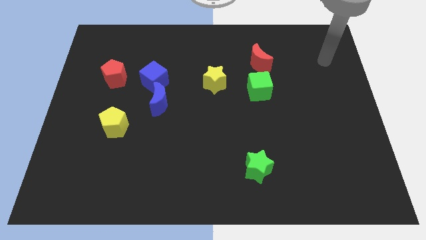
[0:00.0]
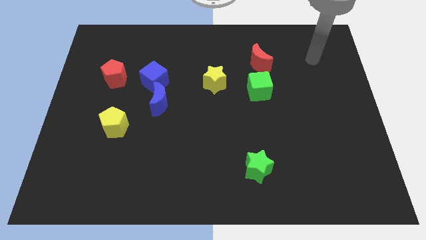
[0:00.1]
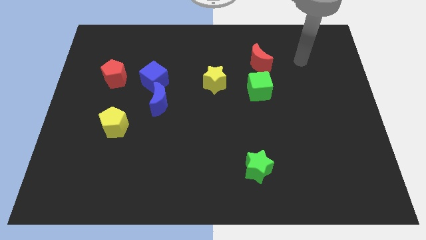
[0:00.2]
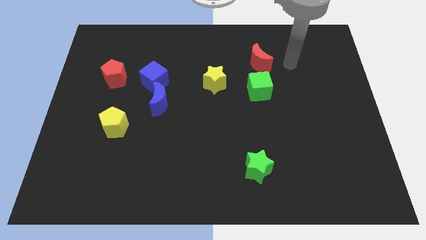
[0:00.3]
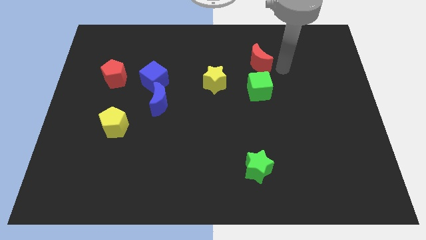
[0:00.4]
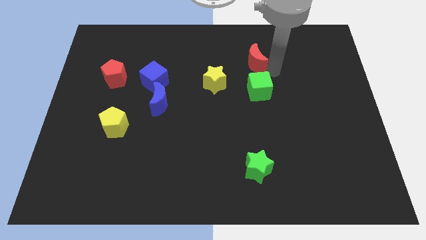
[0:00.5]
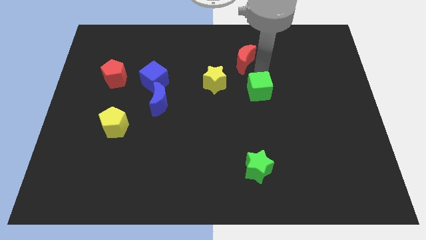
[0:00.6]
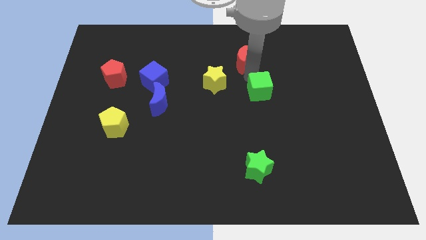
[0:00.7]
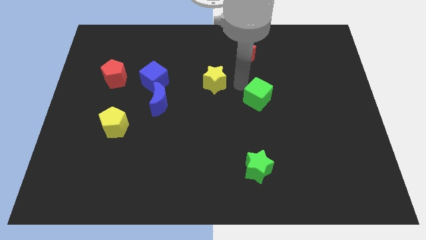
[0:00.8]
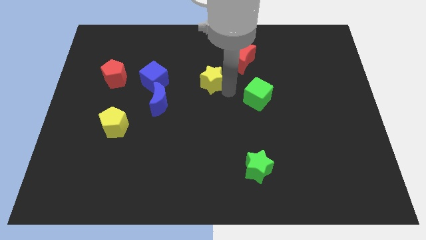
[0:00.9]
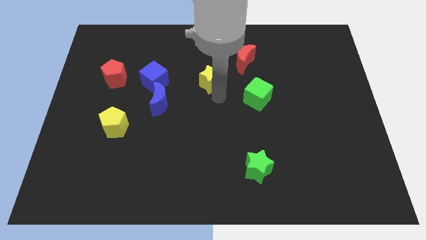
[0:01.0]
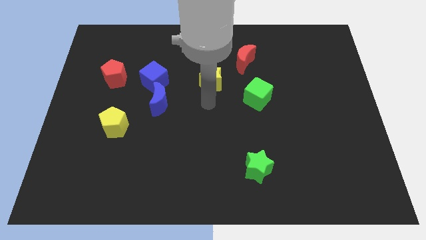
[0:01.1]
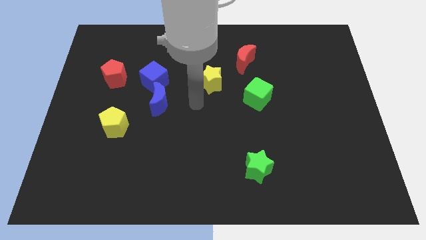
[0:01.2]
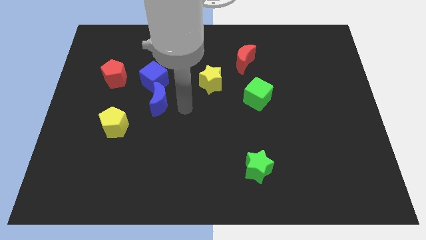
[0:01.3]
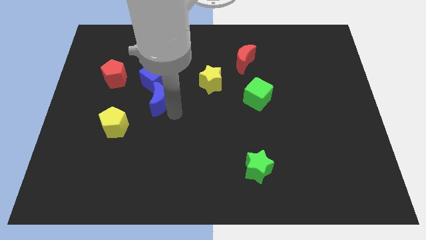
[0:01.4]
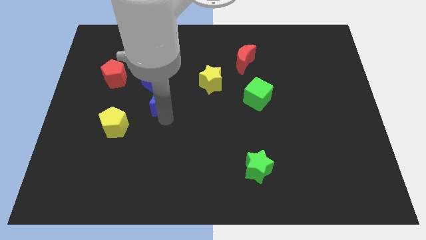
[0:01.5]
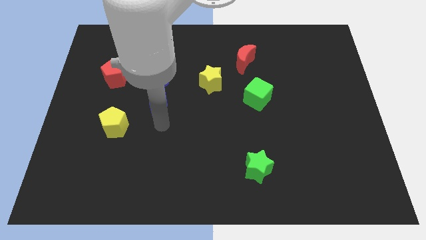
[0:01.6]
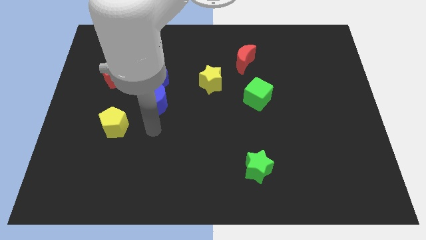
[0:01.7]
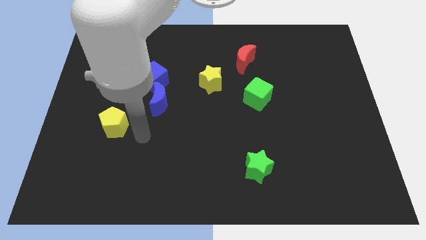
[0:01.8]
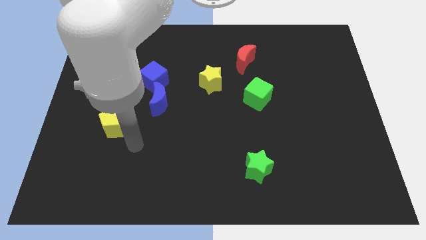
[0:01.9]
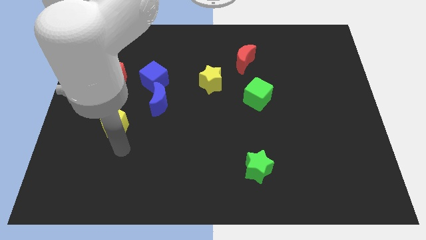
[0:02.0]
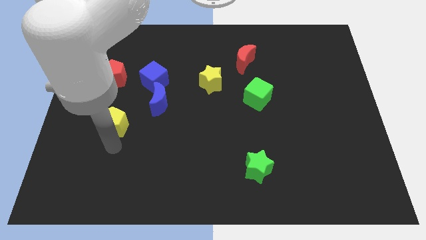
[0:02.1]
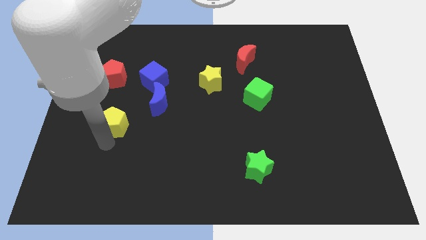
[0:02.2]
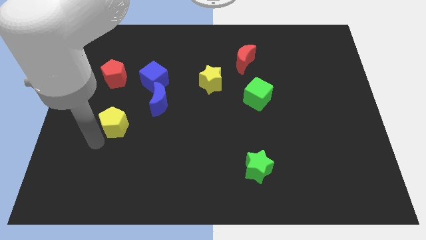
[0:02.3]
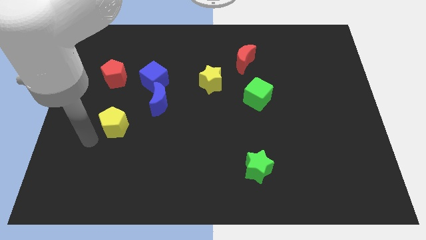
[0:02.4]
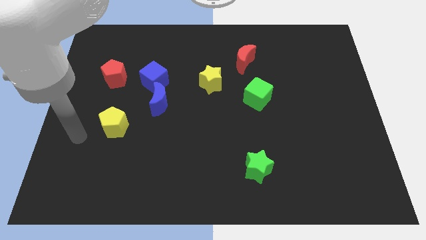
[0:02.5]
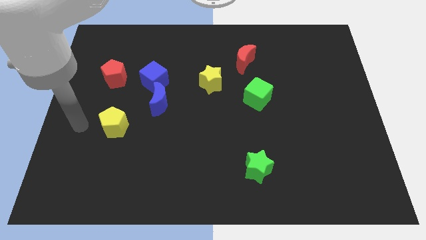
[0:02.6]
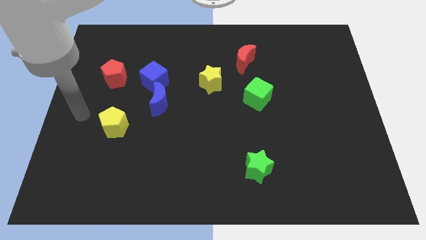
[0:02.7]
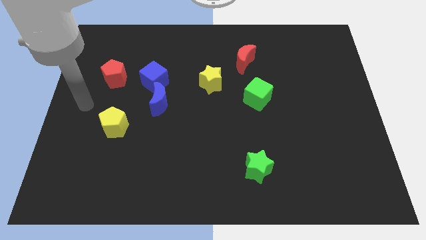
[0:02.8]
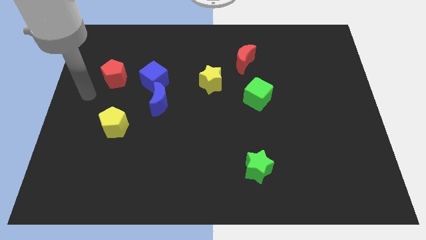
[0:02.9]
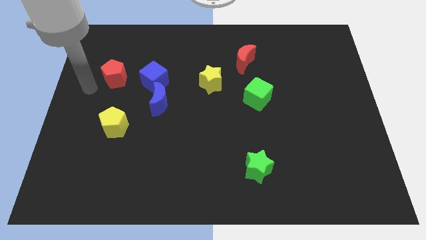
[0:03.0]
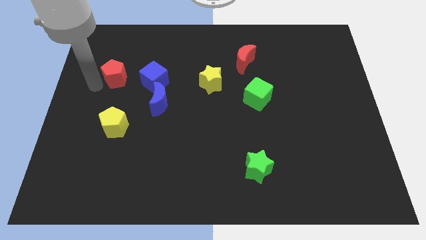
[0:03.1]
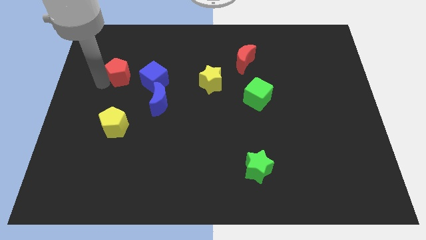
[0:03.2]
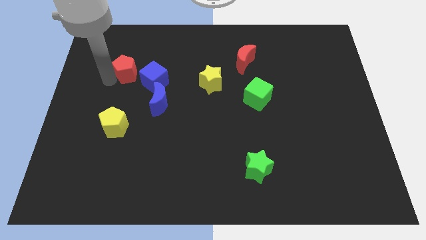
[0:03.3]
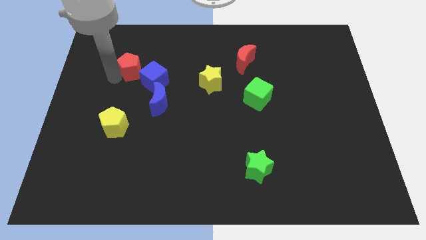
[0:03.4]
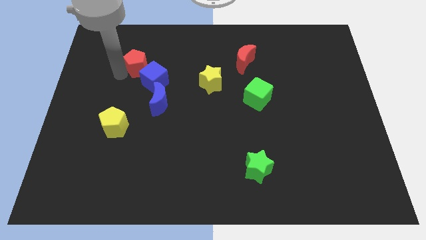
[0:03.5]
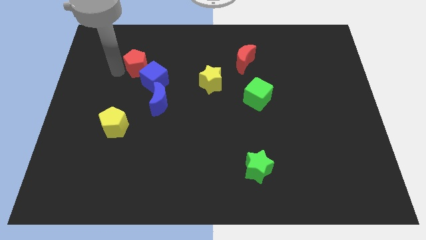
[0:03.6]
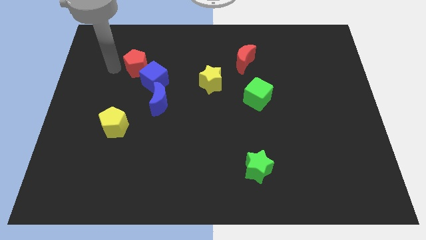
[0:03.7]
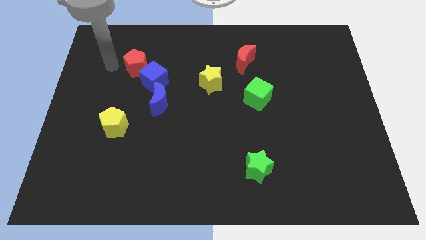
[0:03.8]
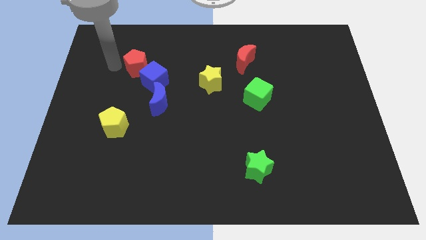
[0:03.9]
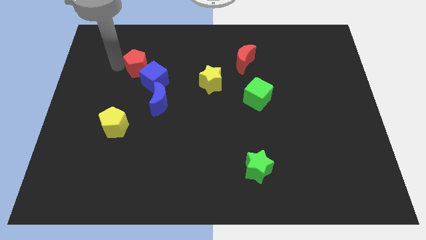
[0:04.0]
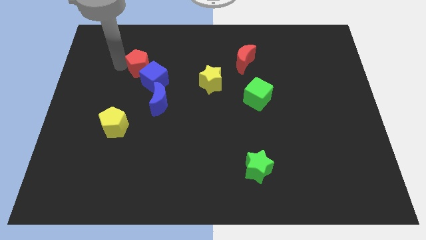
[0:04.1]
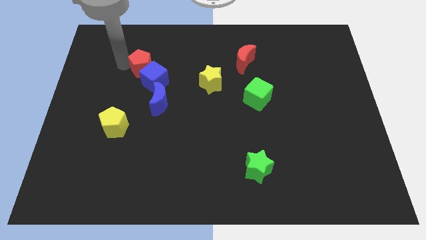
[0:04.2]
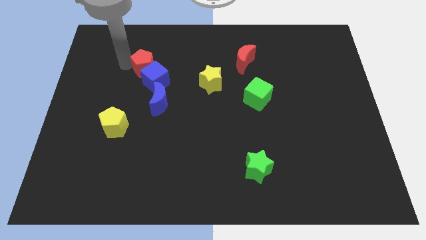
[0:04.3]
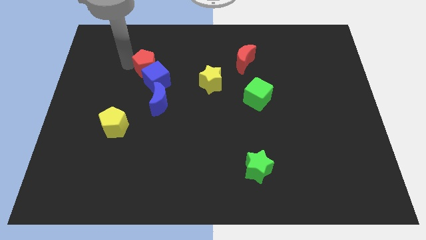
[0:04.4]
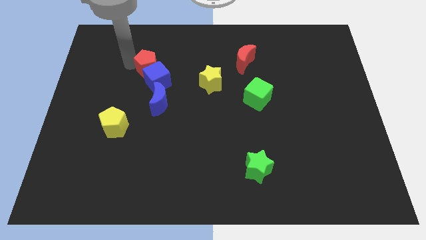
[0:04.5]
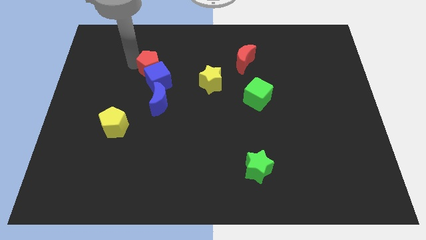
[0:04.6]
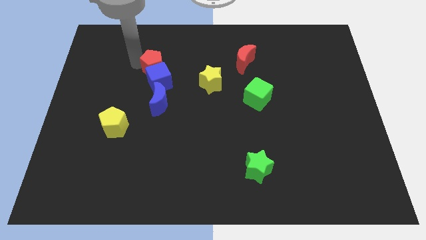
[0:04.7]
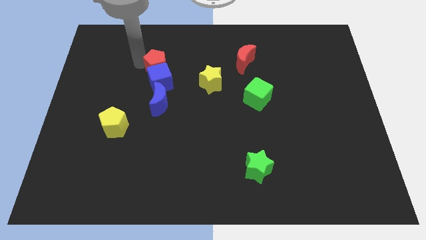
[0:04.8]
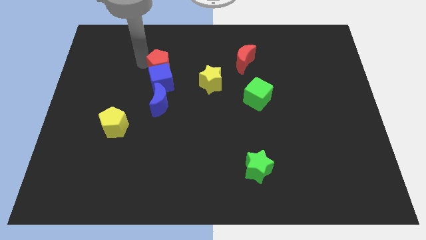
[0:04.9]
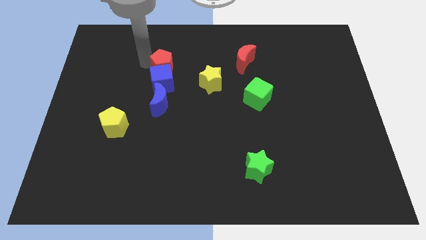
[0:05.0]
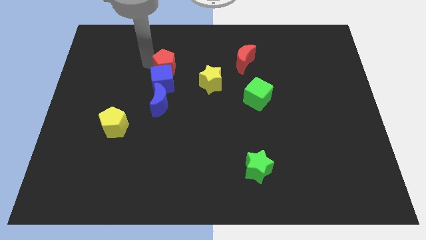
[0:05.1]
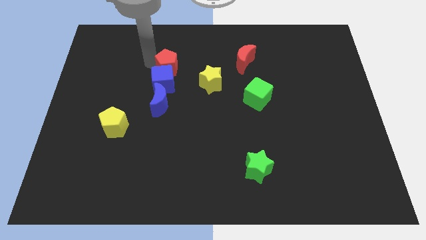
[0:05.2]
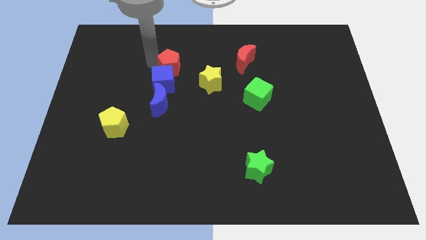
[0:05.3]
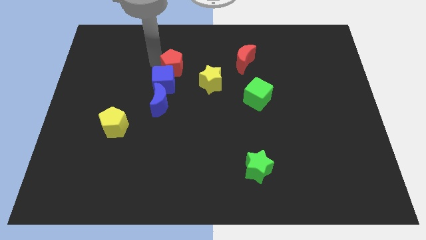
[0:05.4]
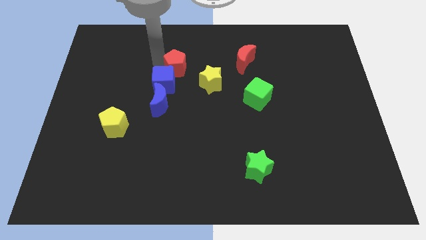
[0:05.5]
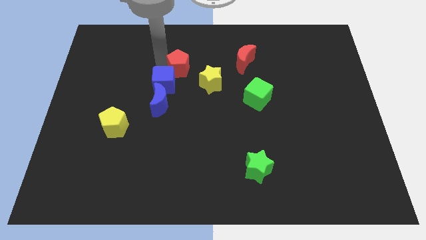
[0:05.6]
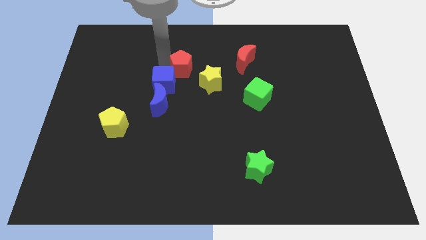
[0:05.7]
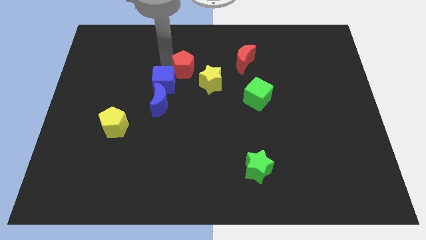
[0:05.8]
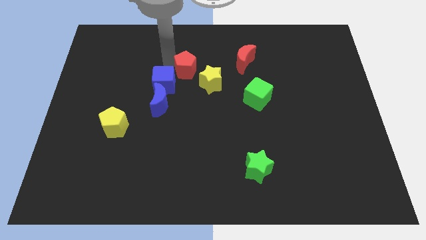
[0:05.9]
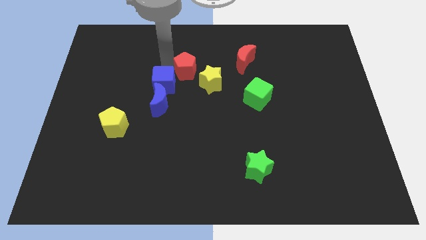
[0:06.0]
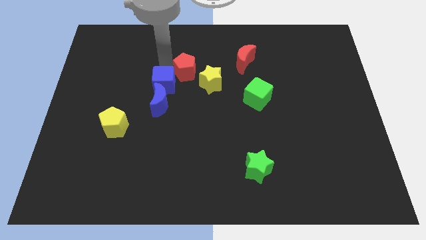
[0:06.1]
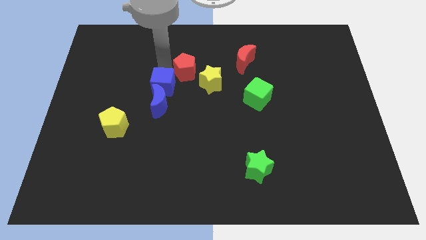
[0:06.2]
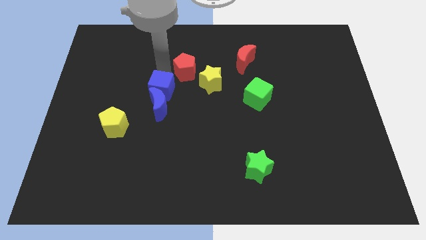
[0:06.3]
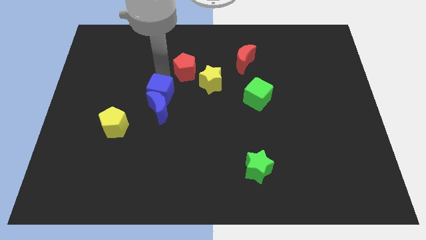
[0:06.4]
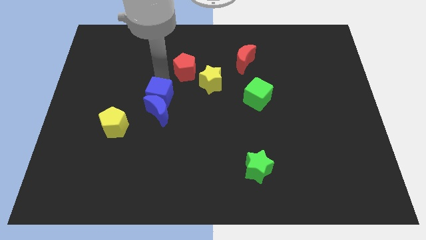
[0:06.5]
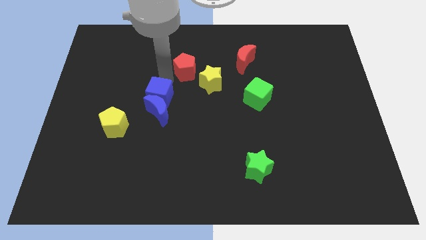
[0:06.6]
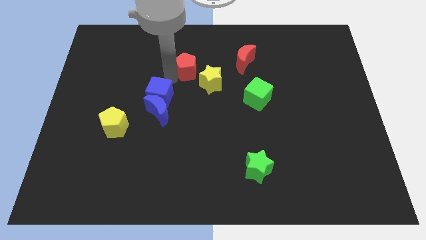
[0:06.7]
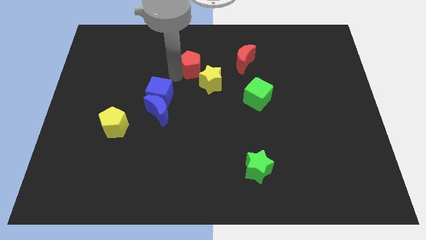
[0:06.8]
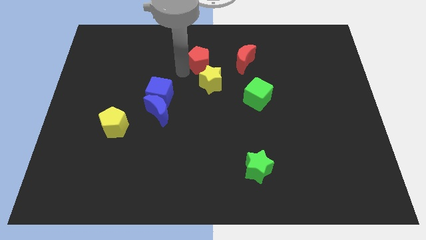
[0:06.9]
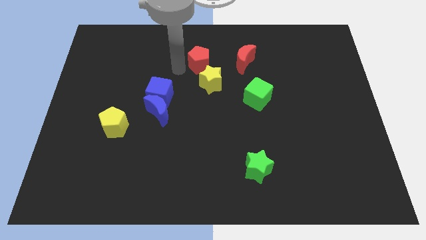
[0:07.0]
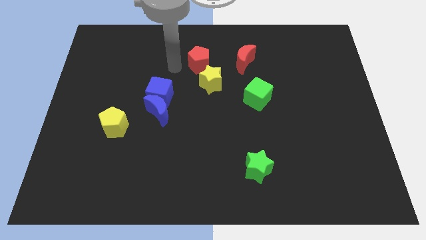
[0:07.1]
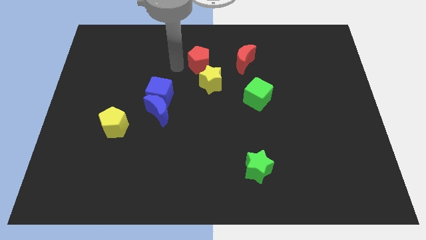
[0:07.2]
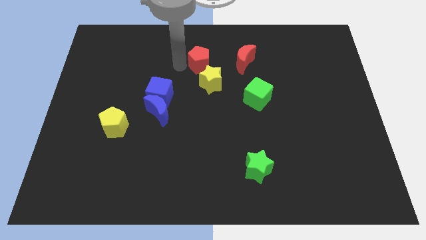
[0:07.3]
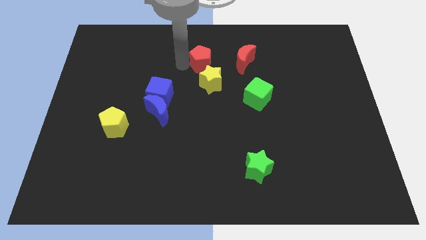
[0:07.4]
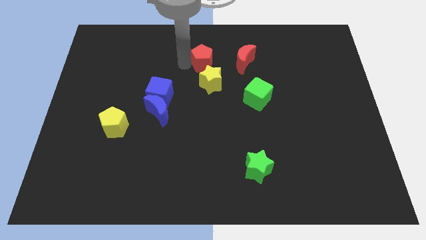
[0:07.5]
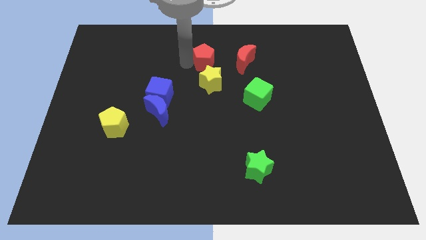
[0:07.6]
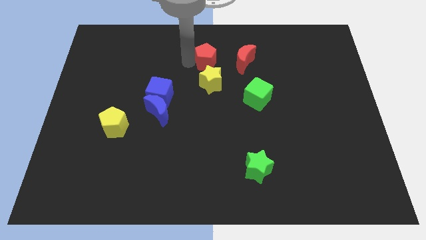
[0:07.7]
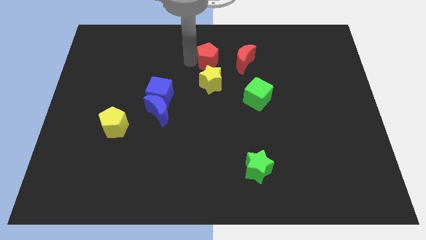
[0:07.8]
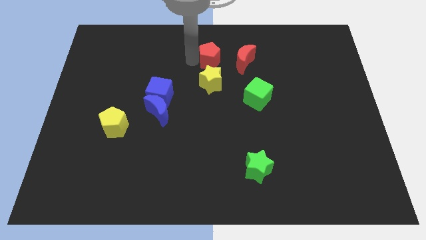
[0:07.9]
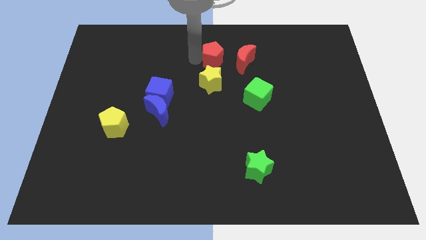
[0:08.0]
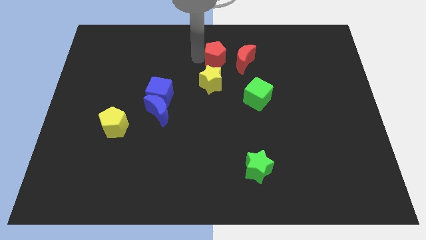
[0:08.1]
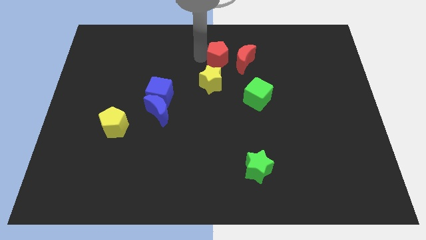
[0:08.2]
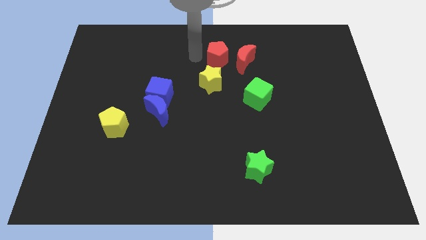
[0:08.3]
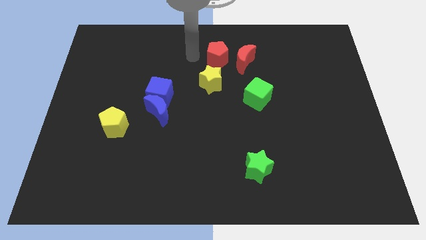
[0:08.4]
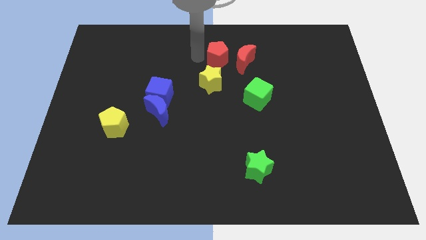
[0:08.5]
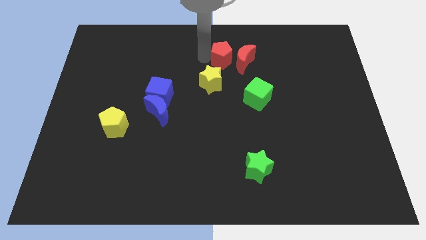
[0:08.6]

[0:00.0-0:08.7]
slide the red pentagon next to the red moon
